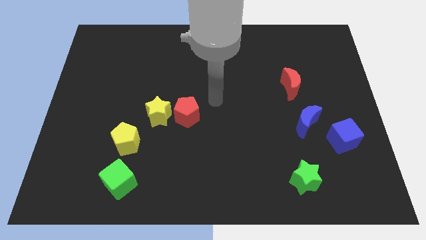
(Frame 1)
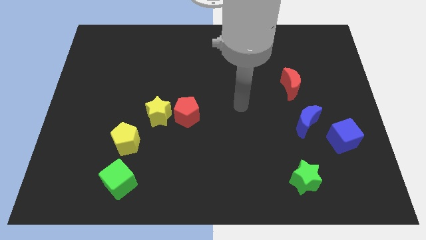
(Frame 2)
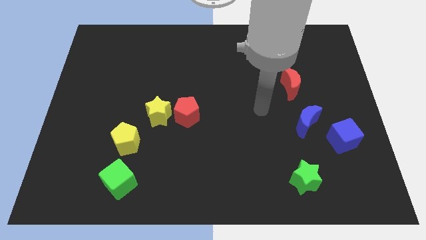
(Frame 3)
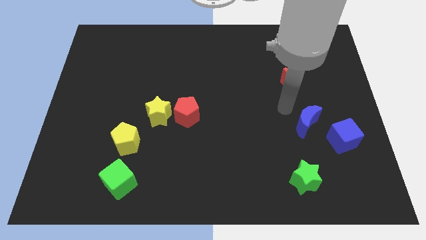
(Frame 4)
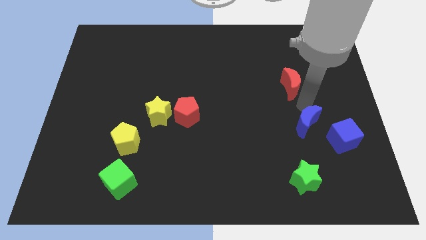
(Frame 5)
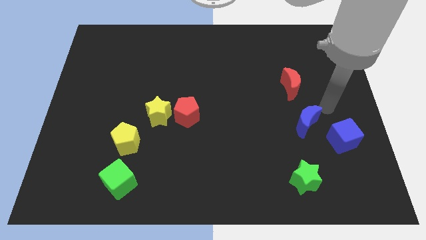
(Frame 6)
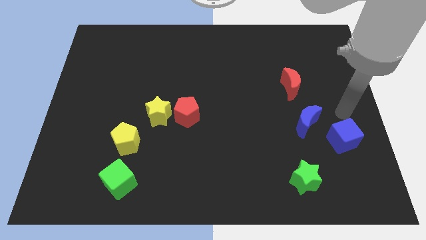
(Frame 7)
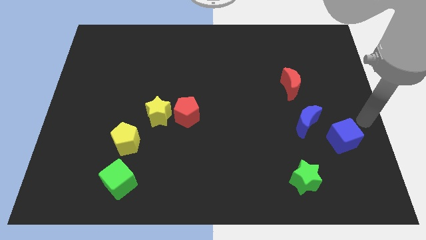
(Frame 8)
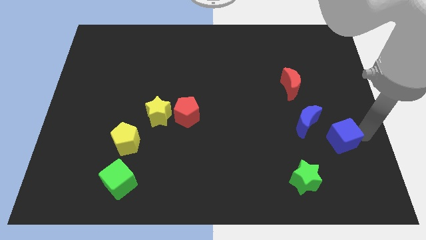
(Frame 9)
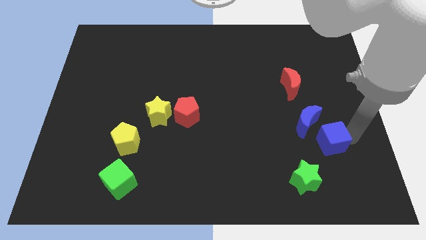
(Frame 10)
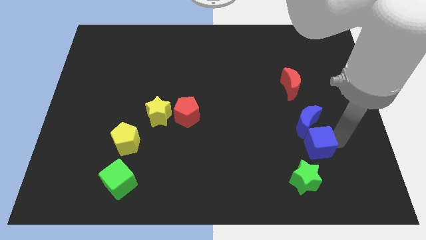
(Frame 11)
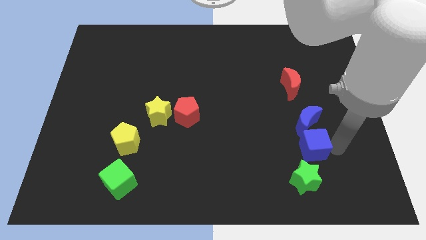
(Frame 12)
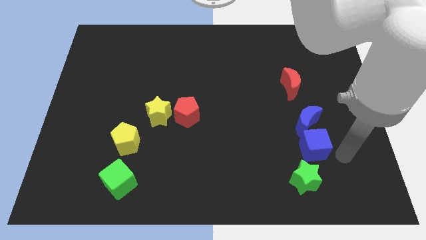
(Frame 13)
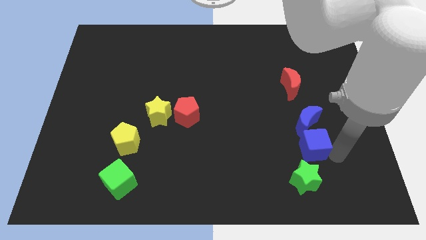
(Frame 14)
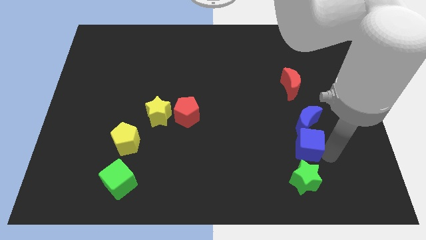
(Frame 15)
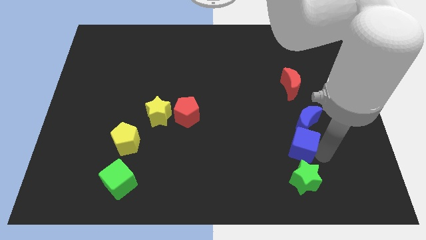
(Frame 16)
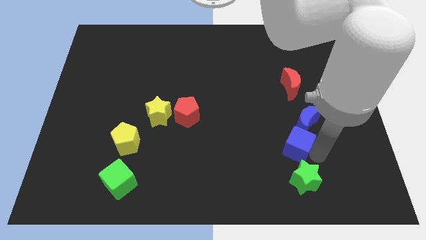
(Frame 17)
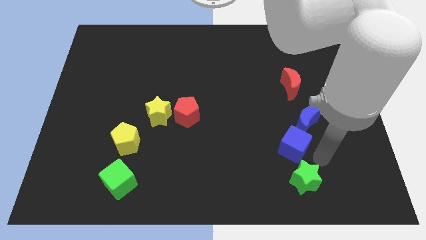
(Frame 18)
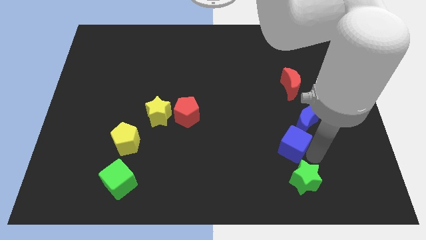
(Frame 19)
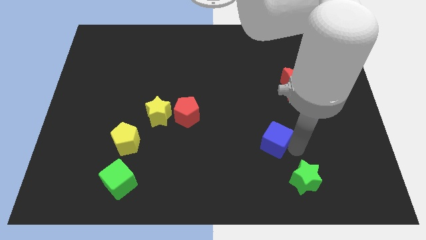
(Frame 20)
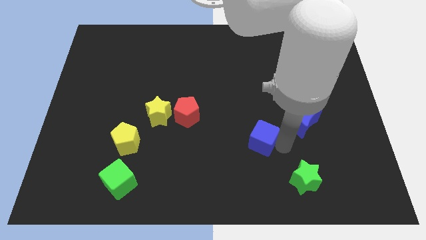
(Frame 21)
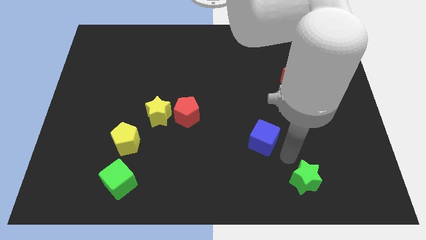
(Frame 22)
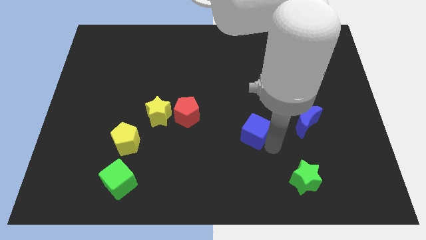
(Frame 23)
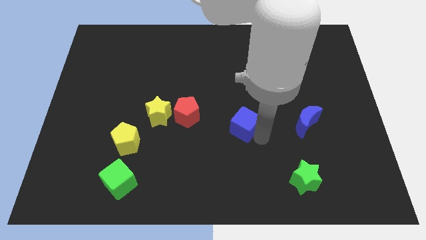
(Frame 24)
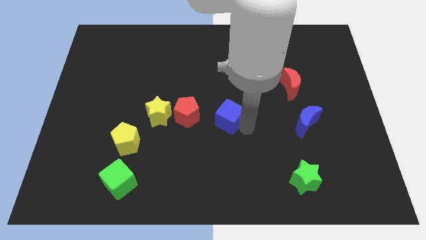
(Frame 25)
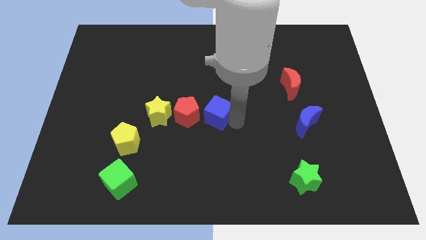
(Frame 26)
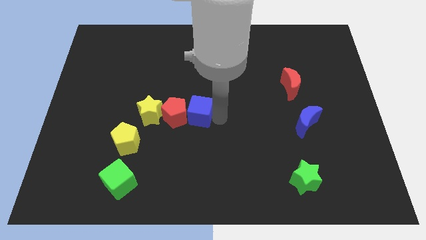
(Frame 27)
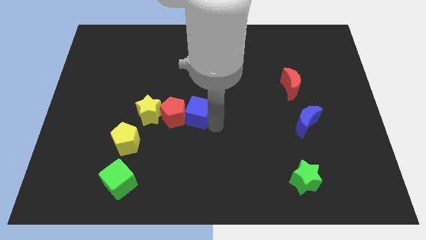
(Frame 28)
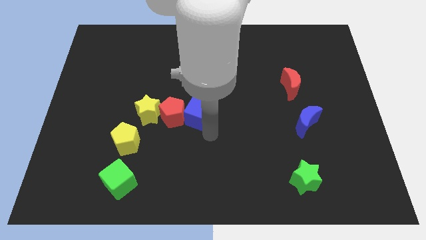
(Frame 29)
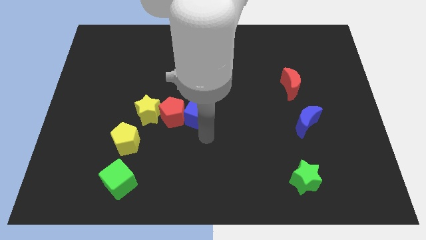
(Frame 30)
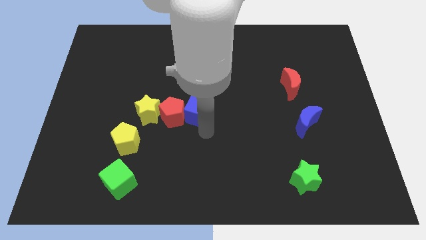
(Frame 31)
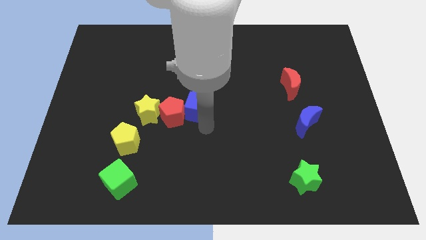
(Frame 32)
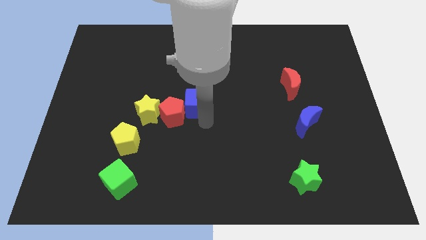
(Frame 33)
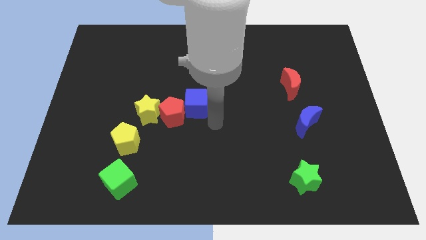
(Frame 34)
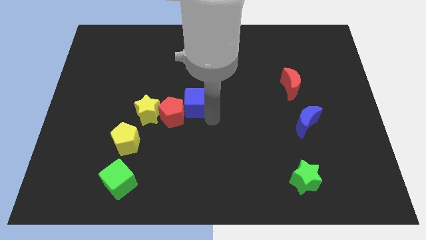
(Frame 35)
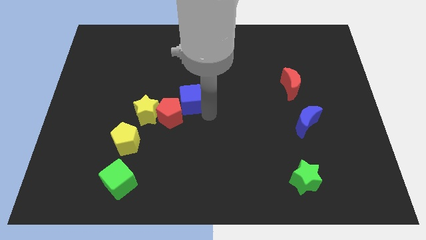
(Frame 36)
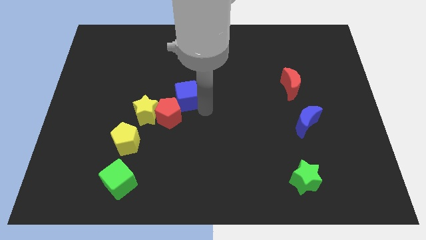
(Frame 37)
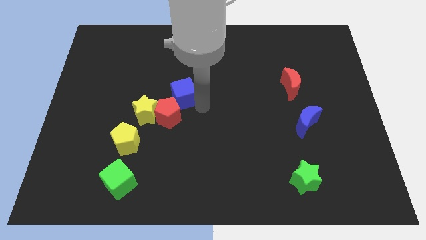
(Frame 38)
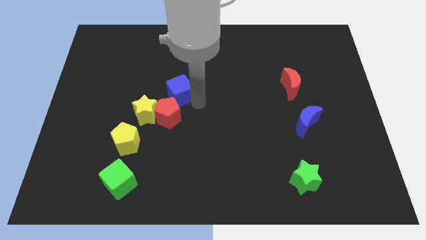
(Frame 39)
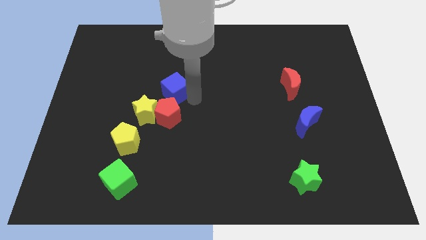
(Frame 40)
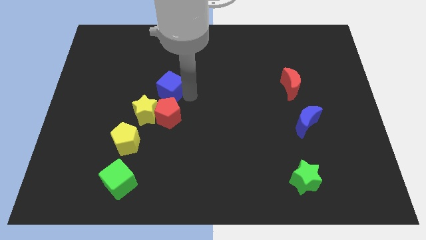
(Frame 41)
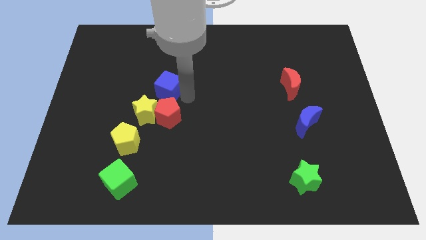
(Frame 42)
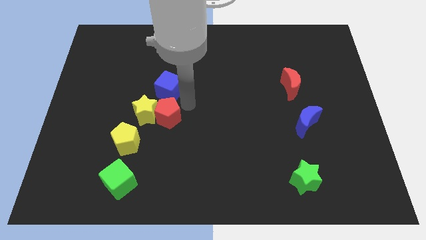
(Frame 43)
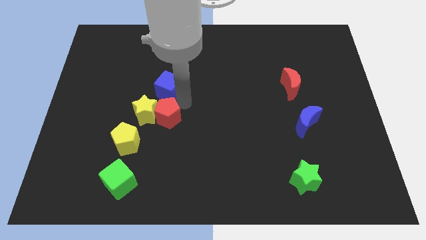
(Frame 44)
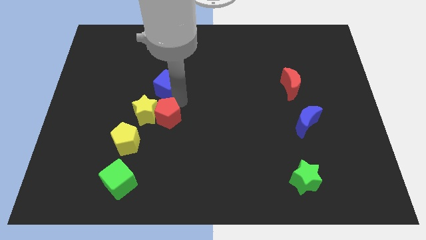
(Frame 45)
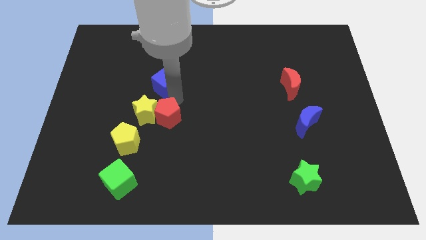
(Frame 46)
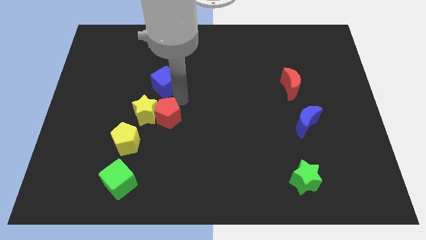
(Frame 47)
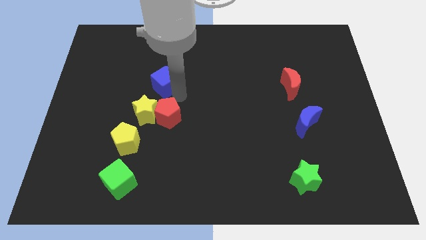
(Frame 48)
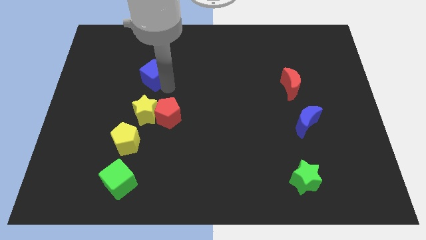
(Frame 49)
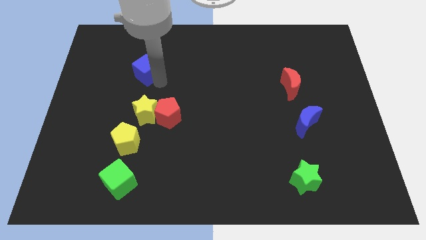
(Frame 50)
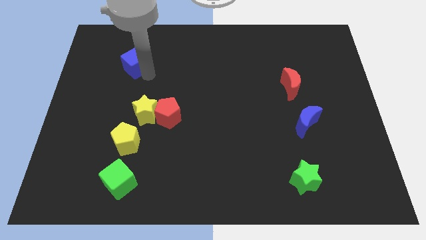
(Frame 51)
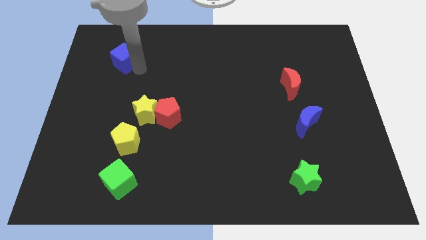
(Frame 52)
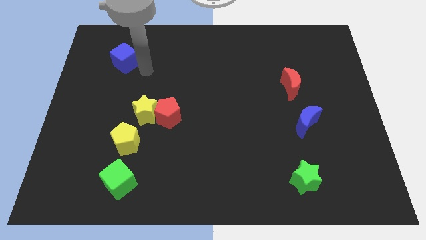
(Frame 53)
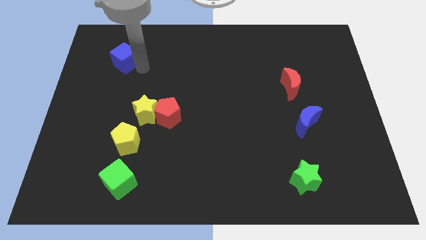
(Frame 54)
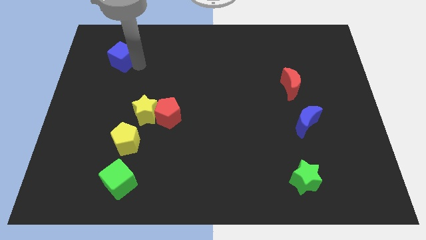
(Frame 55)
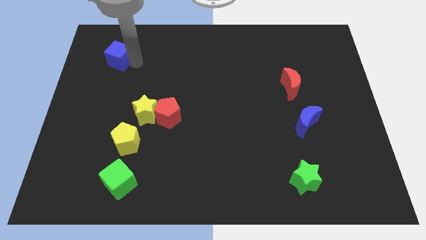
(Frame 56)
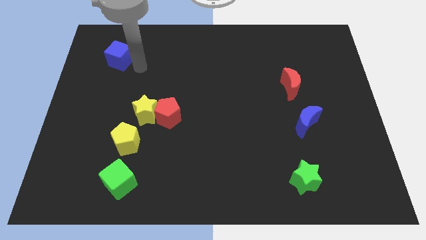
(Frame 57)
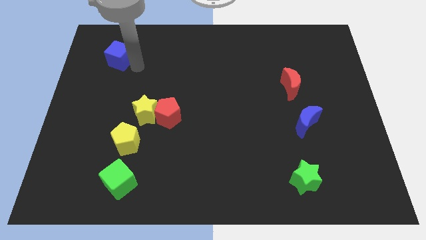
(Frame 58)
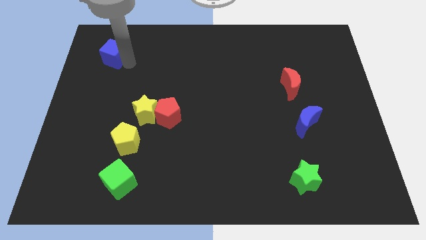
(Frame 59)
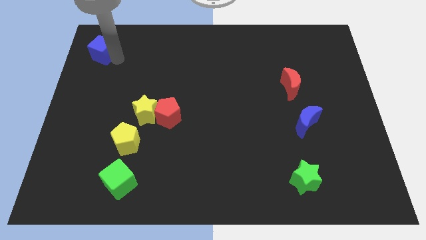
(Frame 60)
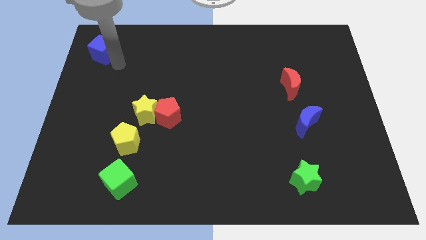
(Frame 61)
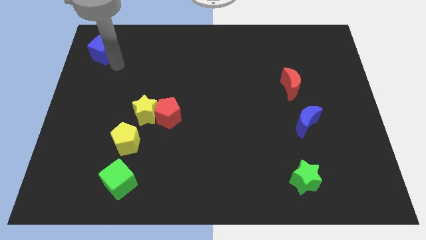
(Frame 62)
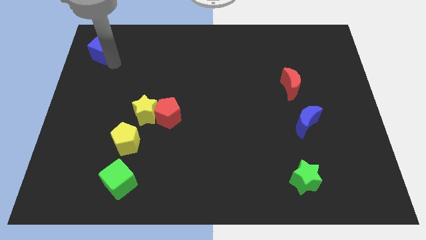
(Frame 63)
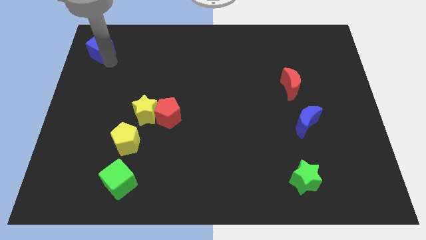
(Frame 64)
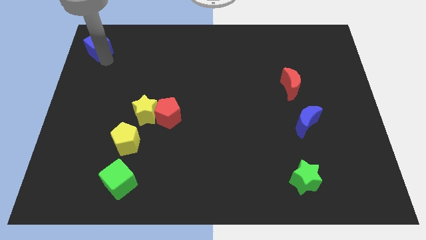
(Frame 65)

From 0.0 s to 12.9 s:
put the blue cube to the top left corner
